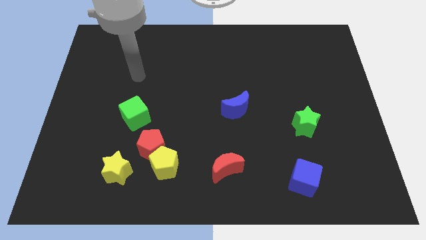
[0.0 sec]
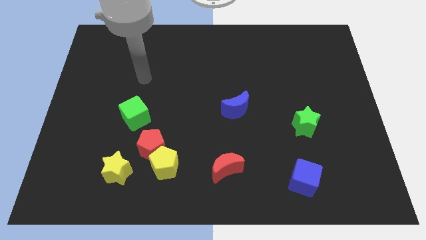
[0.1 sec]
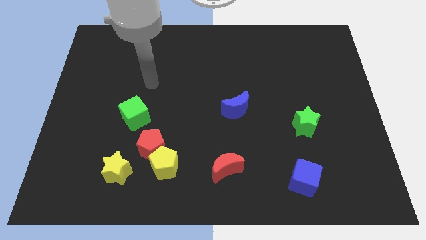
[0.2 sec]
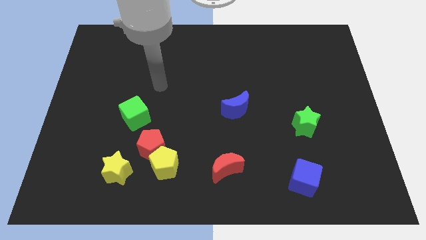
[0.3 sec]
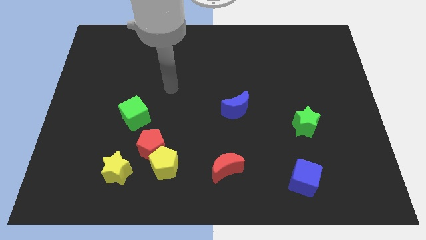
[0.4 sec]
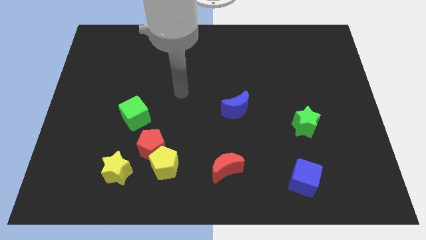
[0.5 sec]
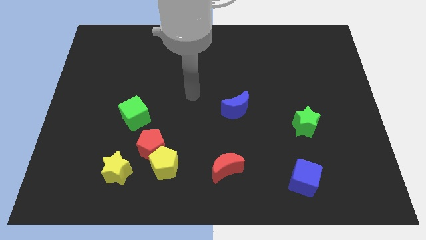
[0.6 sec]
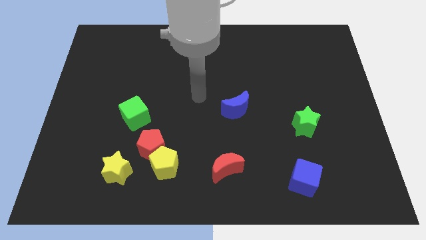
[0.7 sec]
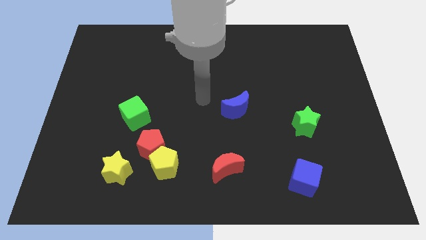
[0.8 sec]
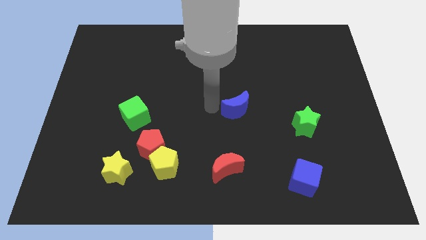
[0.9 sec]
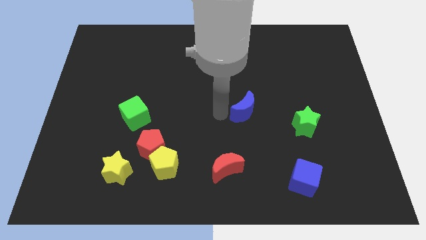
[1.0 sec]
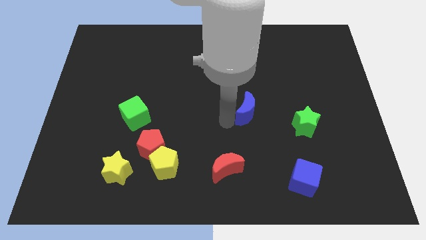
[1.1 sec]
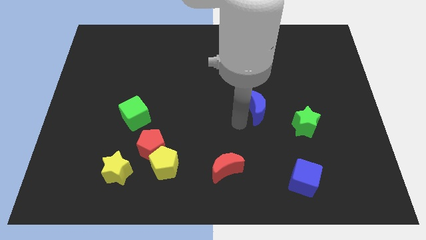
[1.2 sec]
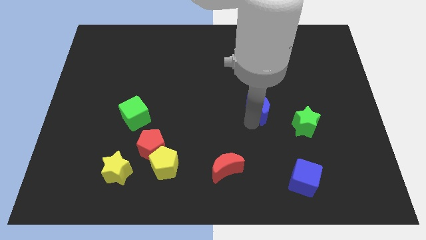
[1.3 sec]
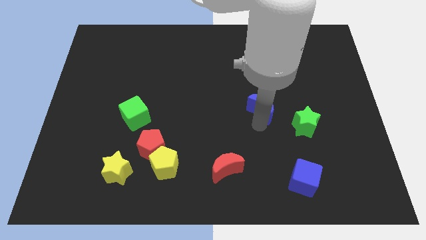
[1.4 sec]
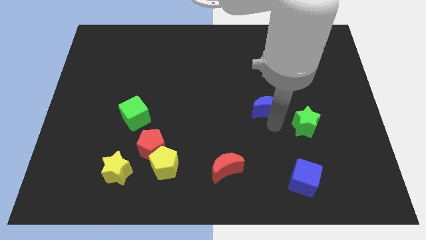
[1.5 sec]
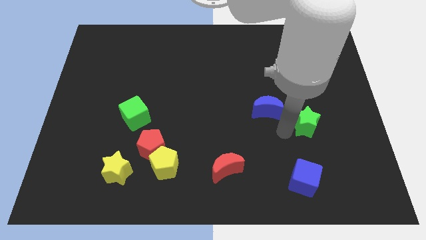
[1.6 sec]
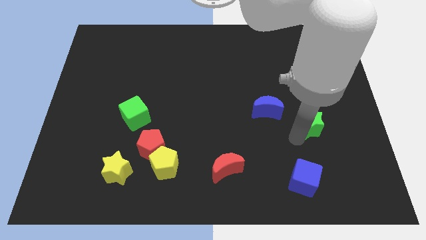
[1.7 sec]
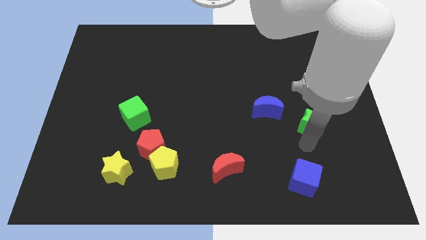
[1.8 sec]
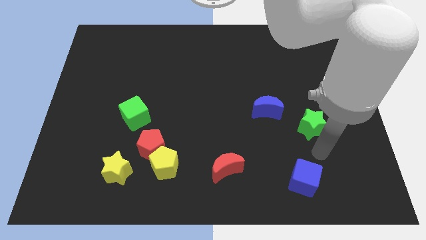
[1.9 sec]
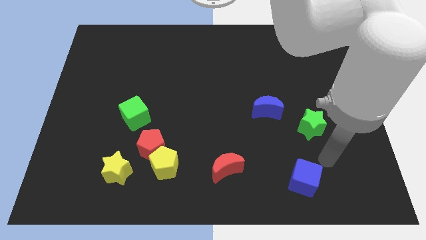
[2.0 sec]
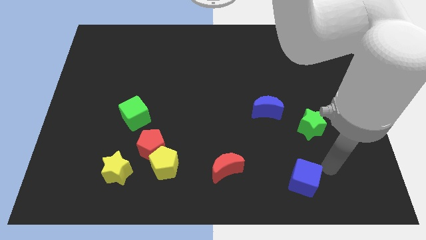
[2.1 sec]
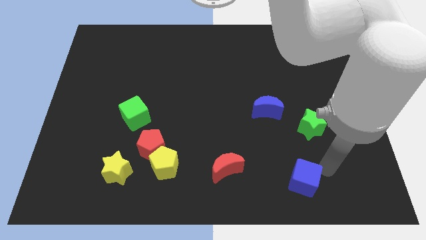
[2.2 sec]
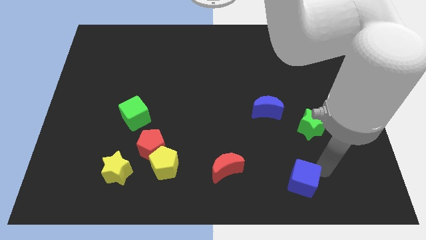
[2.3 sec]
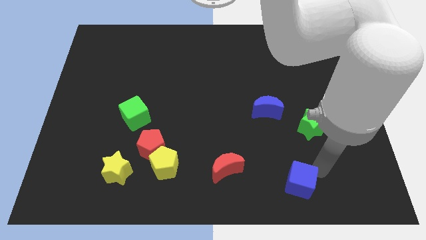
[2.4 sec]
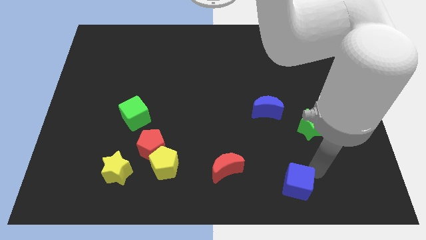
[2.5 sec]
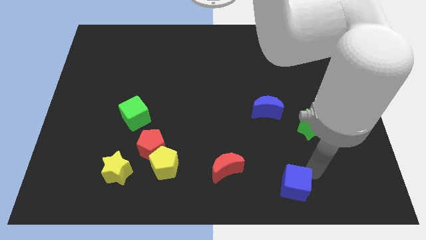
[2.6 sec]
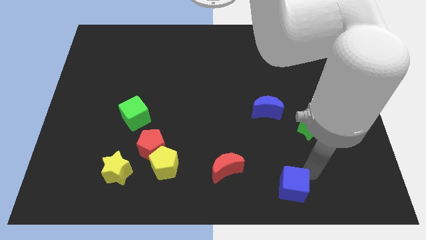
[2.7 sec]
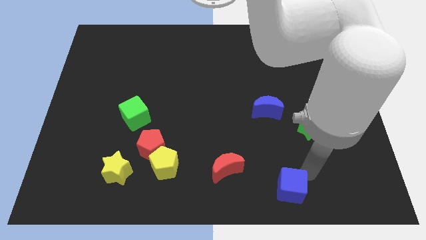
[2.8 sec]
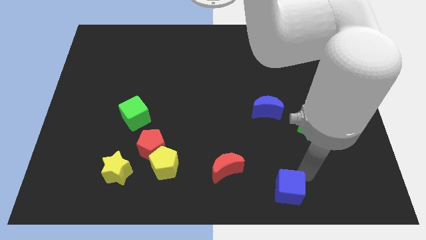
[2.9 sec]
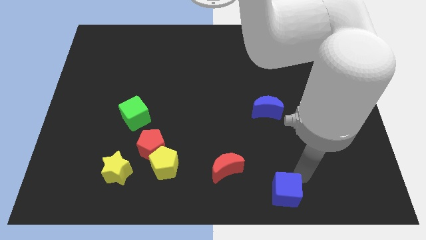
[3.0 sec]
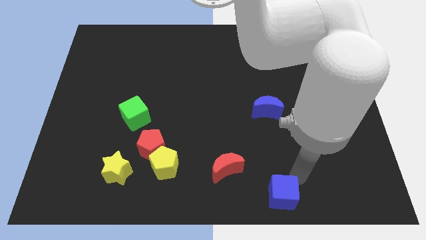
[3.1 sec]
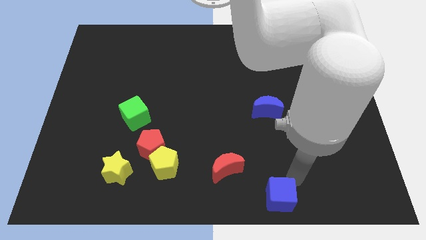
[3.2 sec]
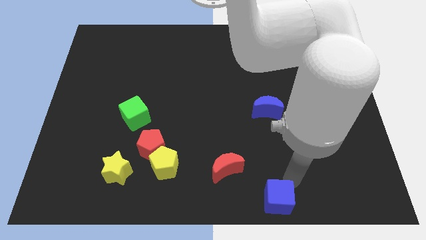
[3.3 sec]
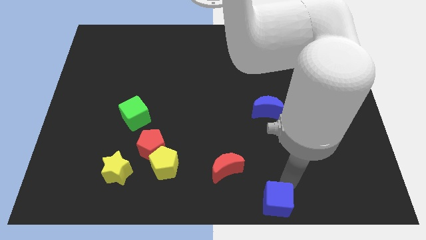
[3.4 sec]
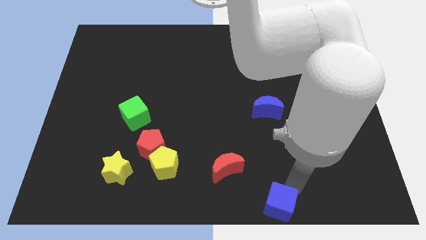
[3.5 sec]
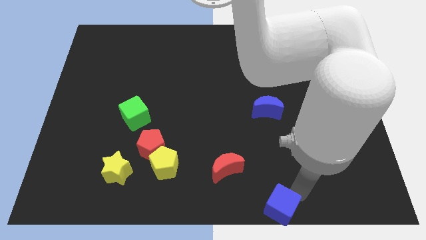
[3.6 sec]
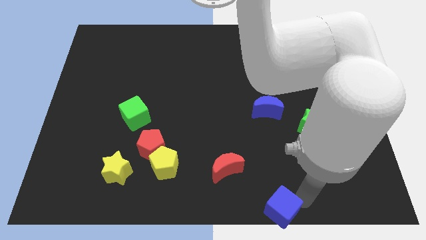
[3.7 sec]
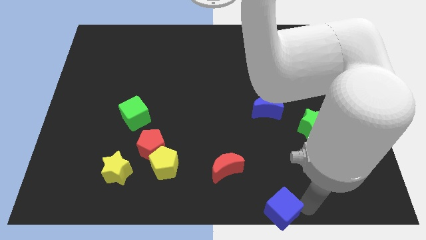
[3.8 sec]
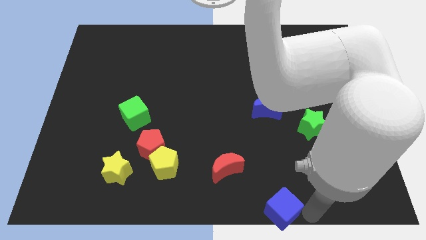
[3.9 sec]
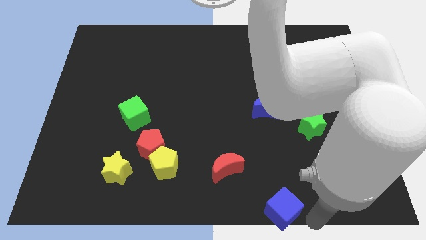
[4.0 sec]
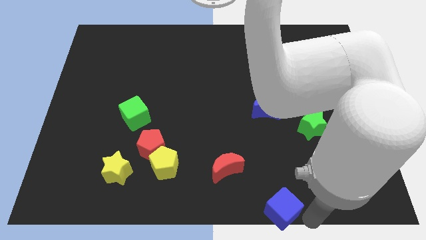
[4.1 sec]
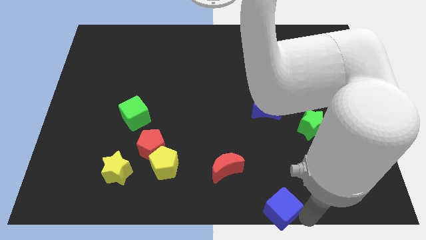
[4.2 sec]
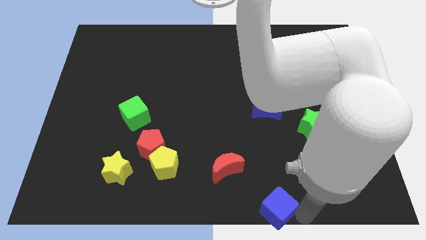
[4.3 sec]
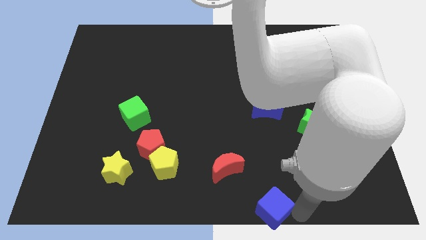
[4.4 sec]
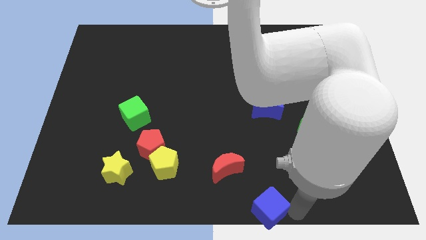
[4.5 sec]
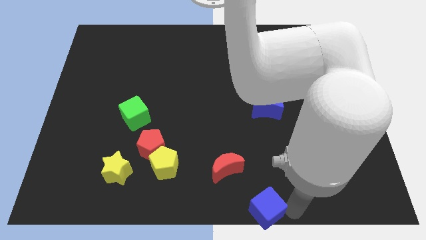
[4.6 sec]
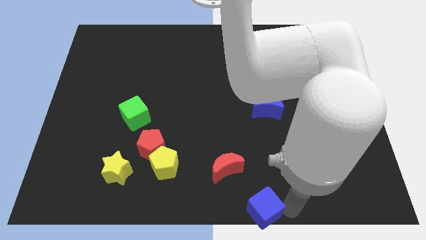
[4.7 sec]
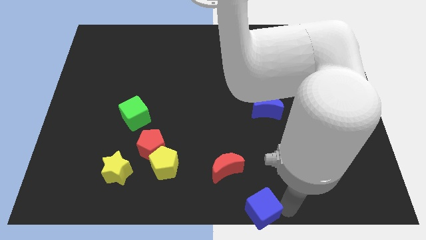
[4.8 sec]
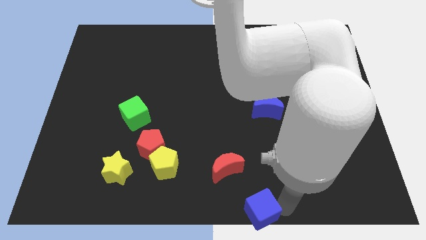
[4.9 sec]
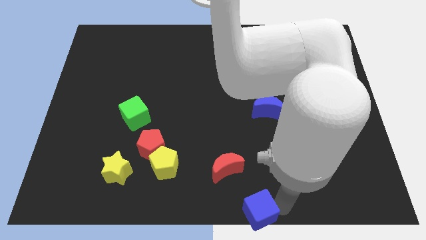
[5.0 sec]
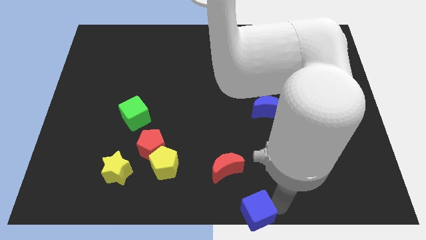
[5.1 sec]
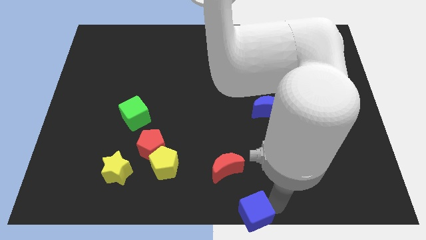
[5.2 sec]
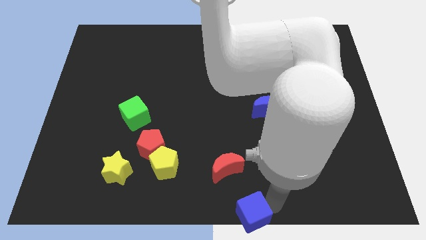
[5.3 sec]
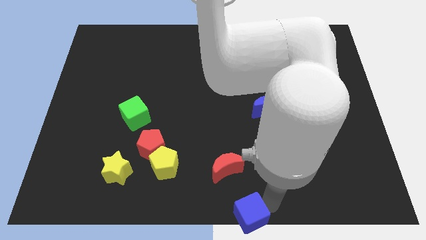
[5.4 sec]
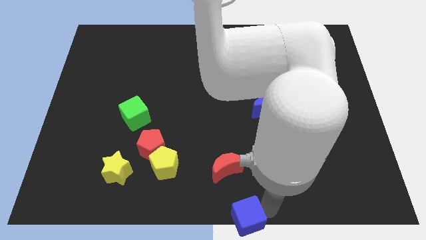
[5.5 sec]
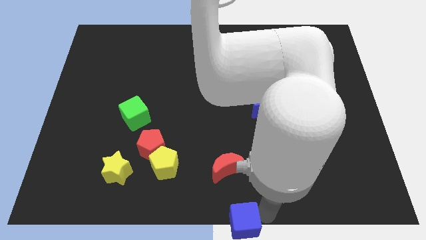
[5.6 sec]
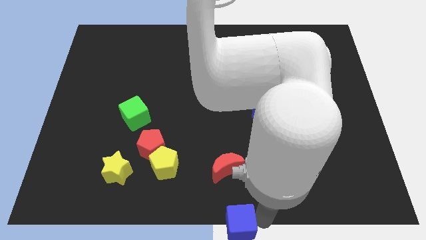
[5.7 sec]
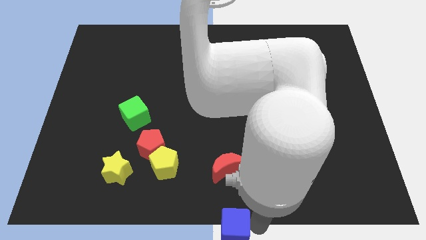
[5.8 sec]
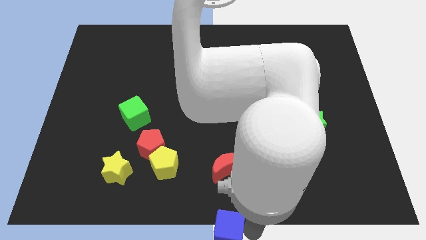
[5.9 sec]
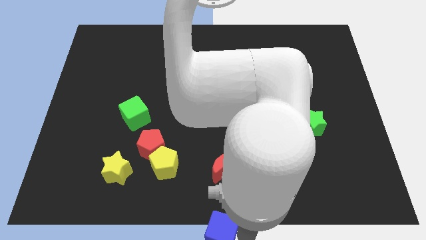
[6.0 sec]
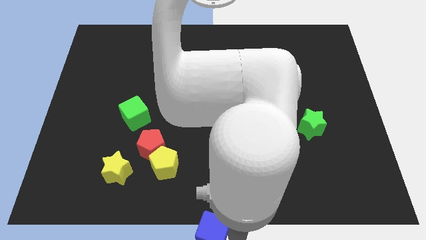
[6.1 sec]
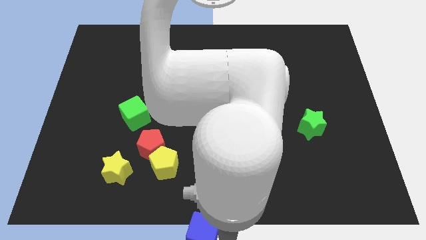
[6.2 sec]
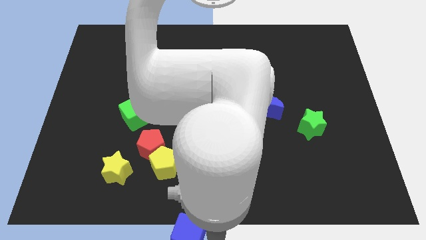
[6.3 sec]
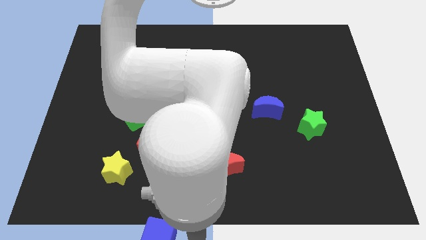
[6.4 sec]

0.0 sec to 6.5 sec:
move the blue cube left

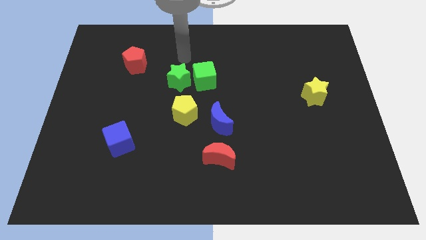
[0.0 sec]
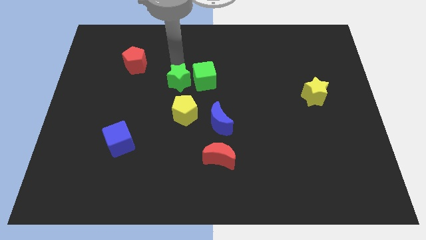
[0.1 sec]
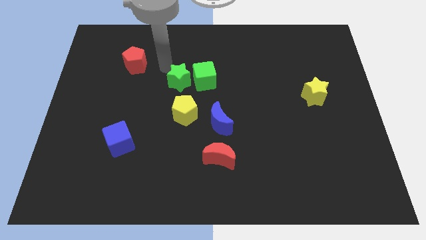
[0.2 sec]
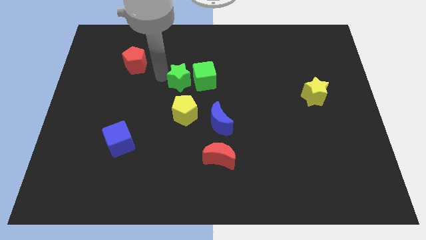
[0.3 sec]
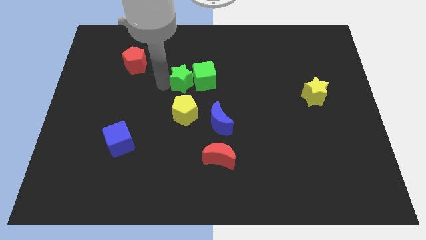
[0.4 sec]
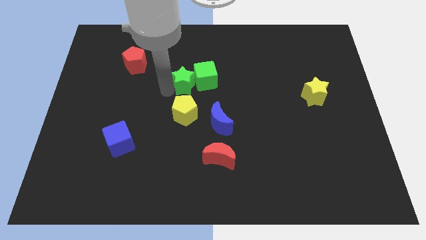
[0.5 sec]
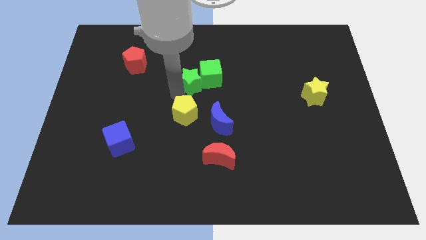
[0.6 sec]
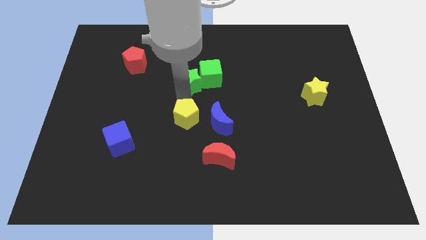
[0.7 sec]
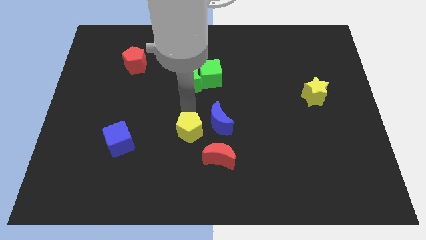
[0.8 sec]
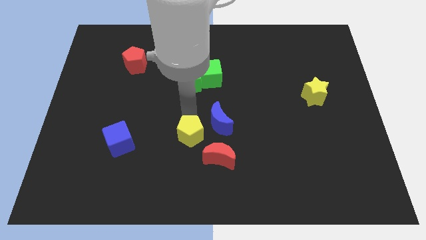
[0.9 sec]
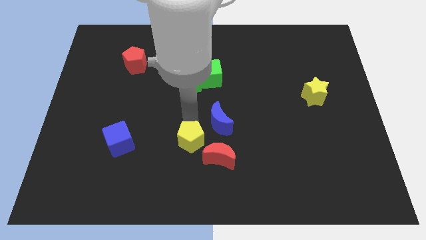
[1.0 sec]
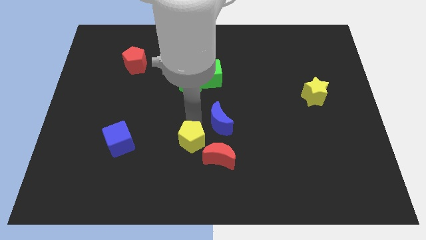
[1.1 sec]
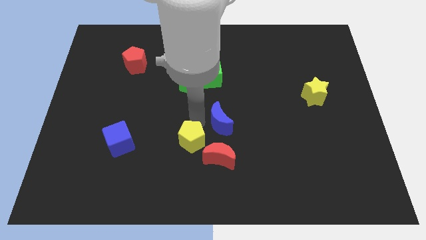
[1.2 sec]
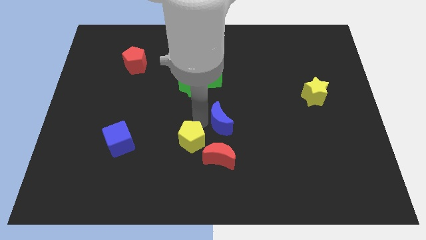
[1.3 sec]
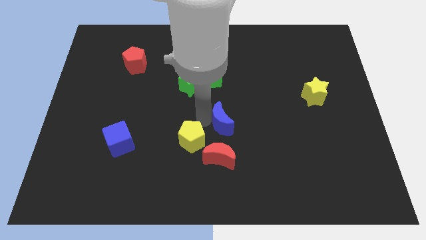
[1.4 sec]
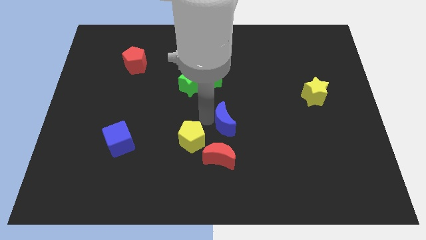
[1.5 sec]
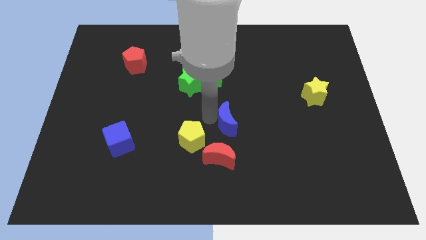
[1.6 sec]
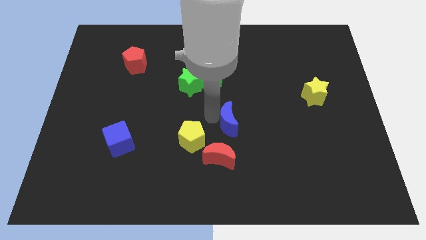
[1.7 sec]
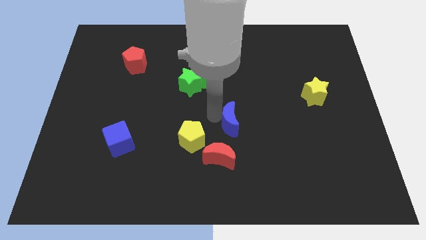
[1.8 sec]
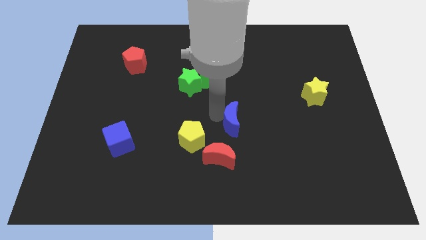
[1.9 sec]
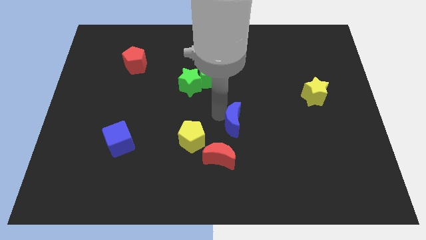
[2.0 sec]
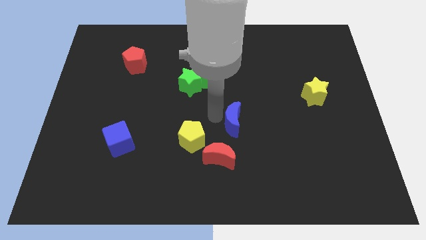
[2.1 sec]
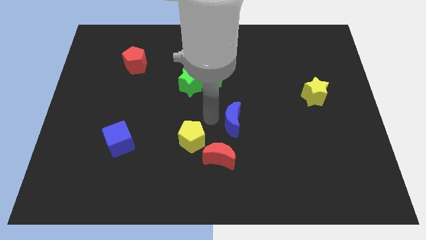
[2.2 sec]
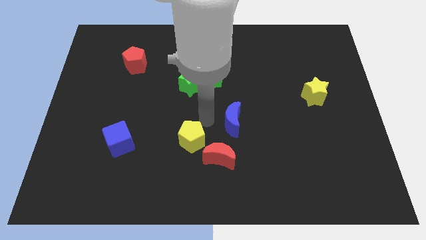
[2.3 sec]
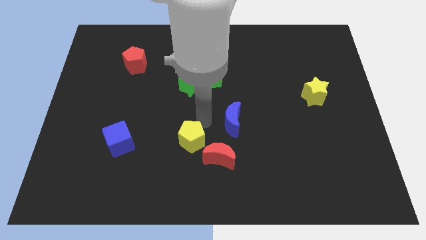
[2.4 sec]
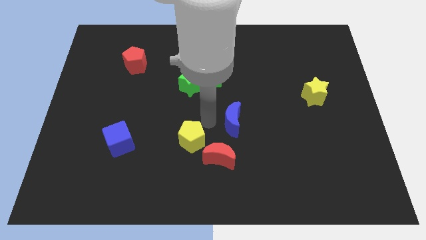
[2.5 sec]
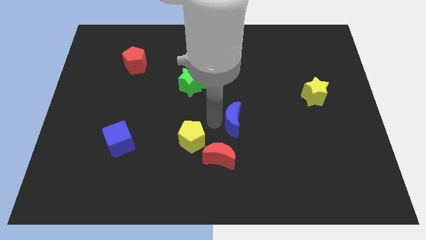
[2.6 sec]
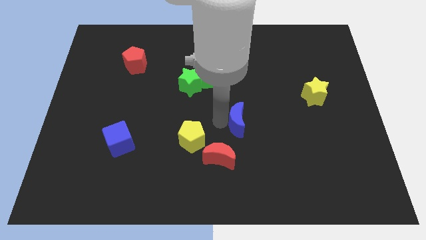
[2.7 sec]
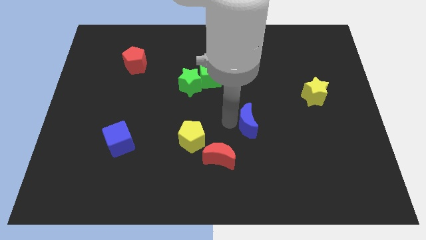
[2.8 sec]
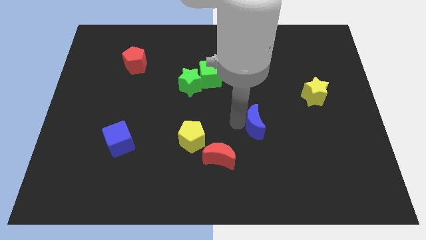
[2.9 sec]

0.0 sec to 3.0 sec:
move the blue moon a bit to the right
